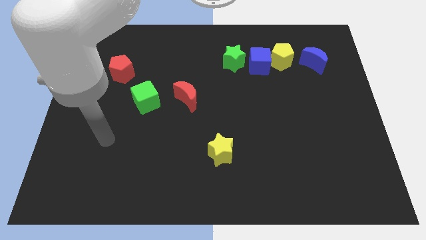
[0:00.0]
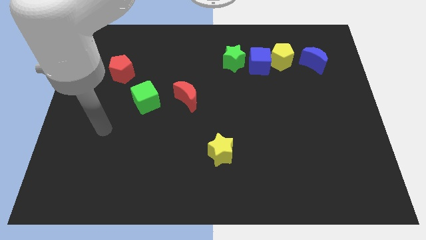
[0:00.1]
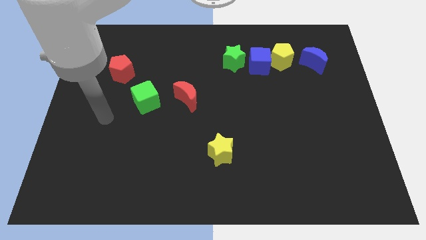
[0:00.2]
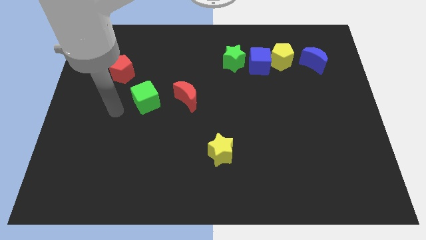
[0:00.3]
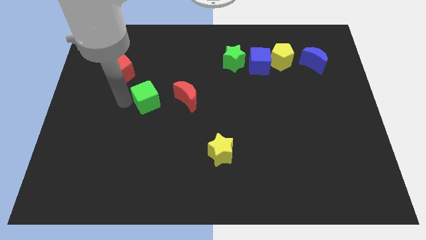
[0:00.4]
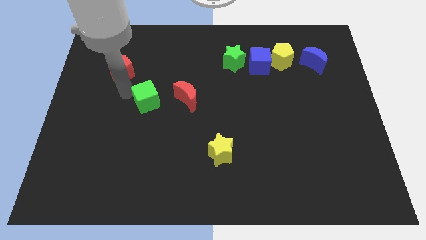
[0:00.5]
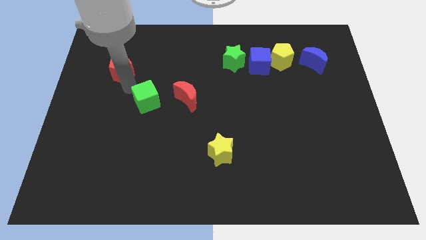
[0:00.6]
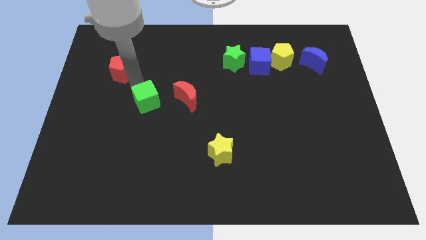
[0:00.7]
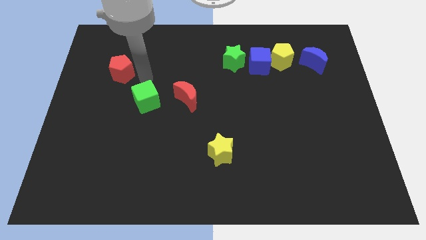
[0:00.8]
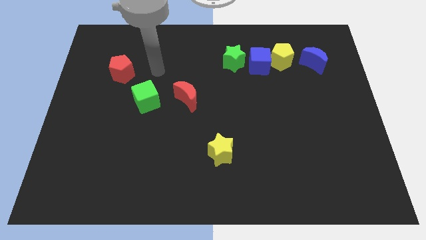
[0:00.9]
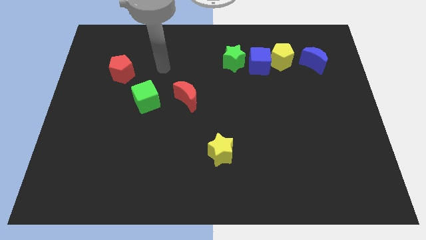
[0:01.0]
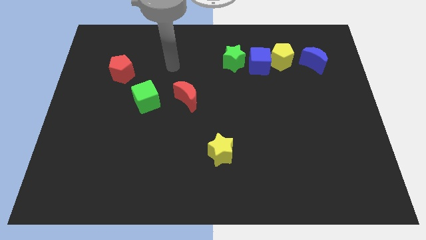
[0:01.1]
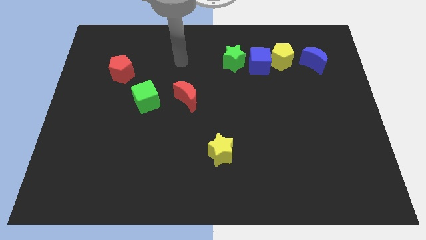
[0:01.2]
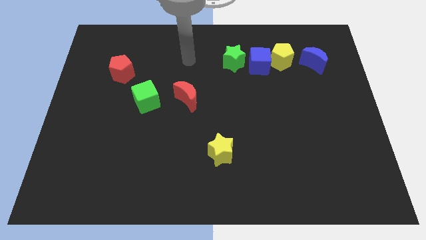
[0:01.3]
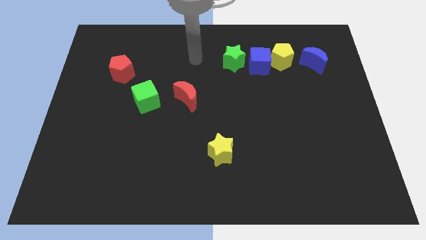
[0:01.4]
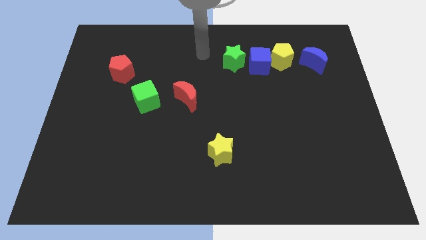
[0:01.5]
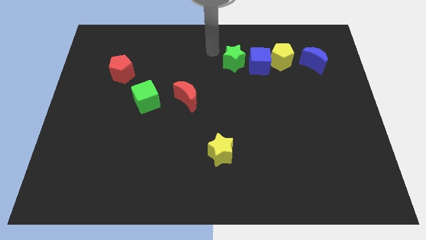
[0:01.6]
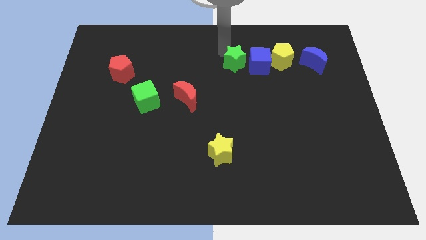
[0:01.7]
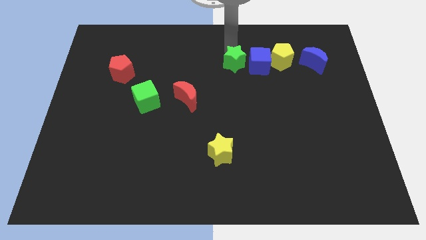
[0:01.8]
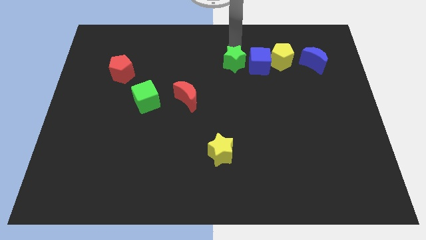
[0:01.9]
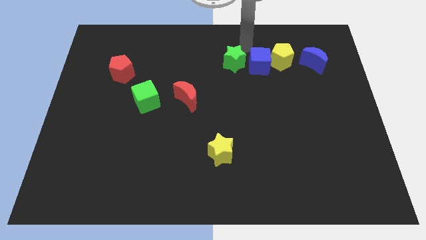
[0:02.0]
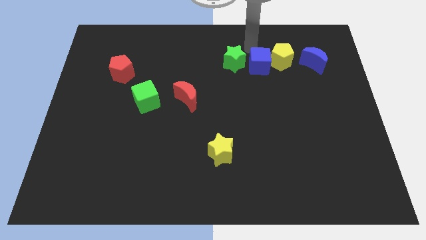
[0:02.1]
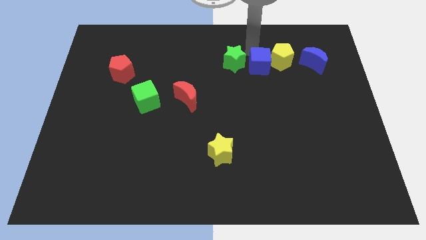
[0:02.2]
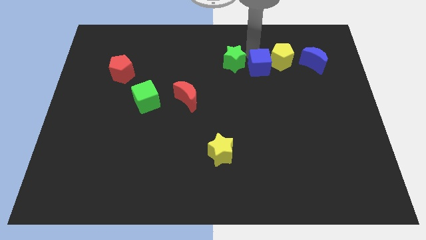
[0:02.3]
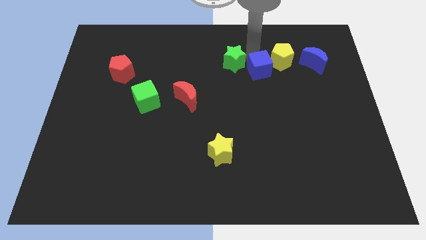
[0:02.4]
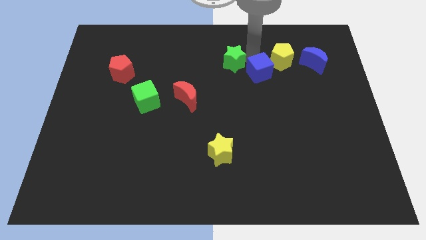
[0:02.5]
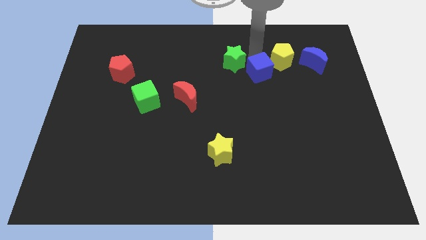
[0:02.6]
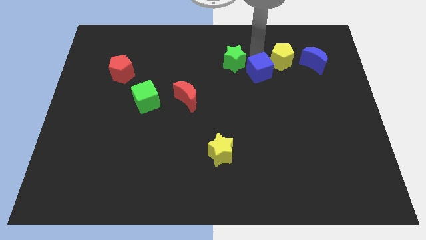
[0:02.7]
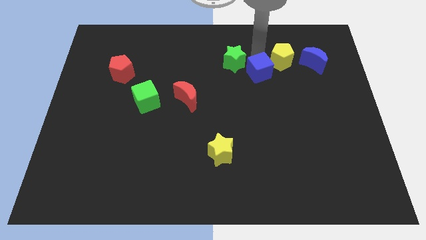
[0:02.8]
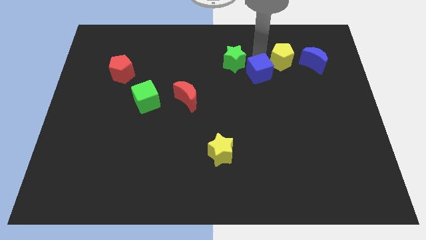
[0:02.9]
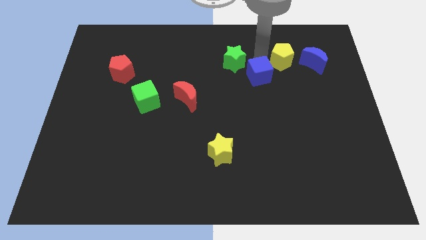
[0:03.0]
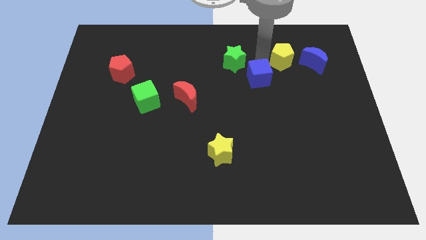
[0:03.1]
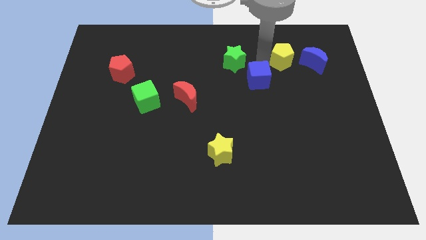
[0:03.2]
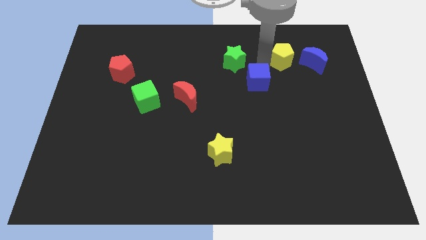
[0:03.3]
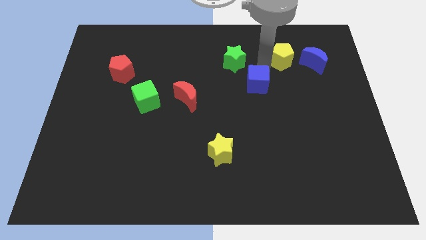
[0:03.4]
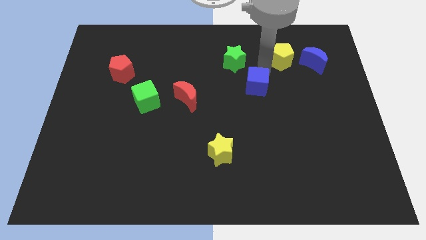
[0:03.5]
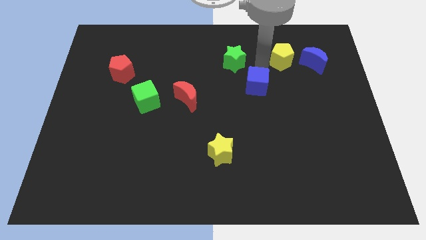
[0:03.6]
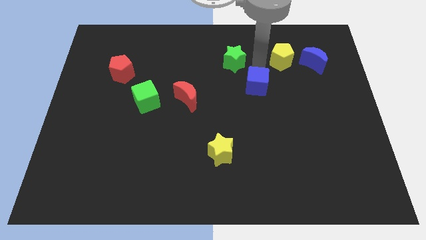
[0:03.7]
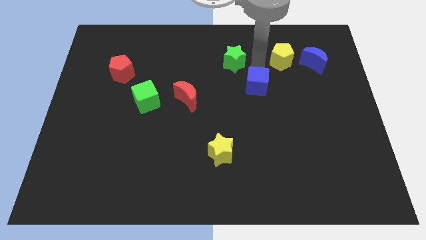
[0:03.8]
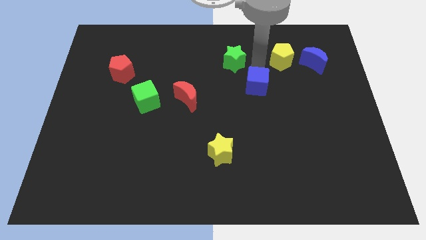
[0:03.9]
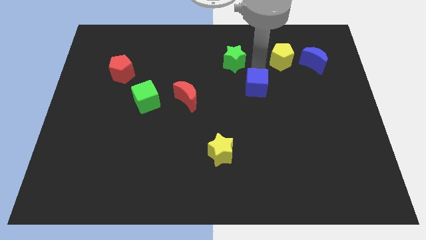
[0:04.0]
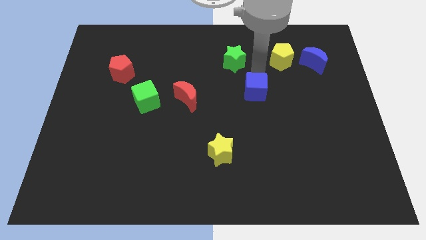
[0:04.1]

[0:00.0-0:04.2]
pull the blue cube apart from the yellow pentagon and green star

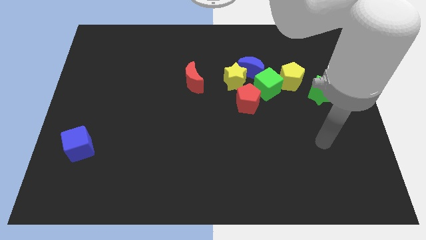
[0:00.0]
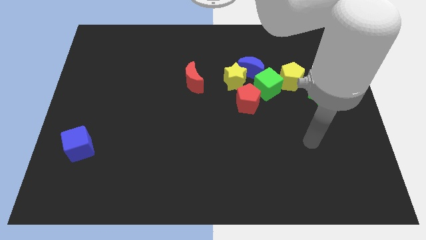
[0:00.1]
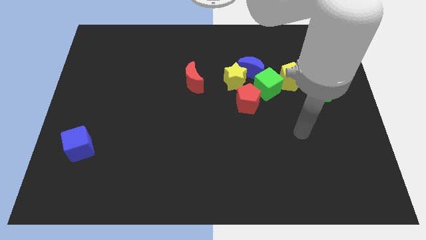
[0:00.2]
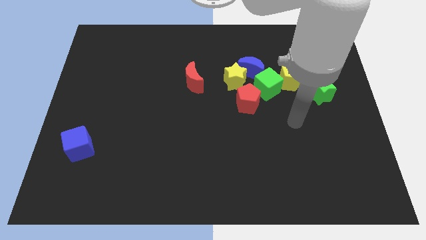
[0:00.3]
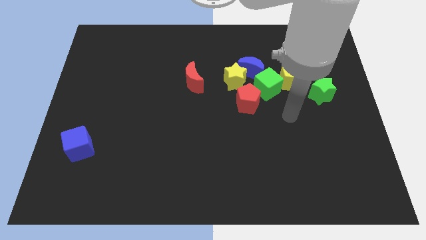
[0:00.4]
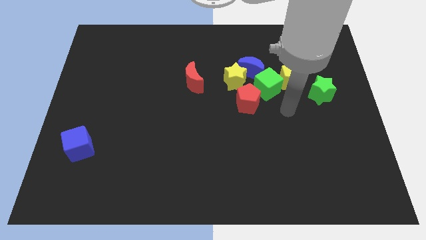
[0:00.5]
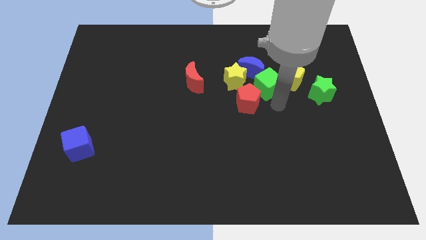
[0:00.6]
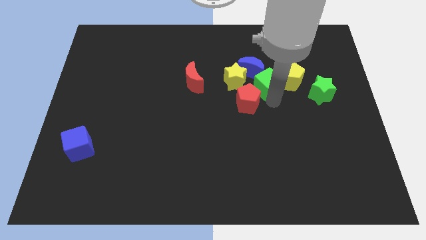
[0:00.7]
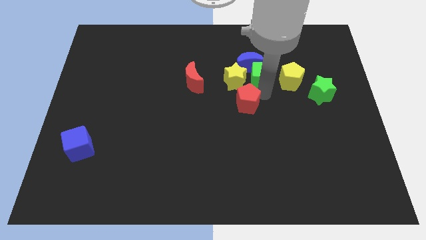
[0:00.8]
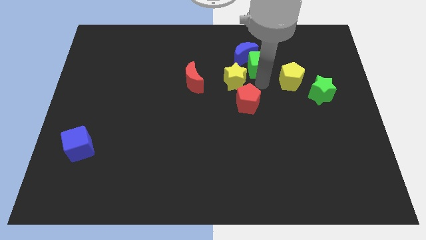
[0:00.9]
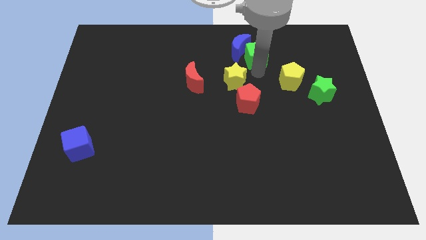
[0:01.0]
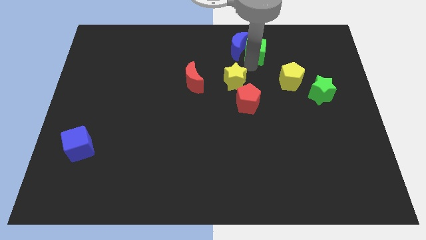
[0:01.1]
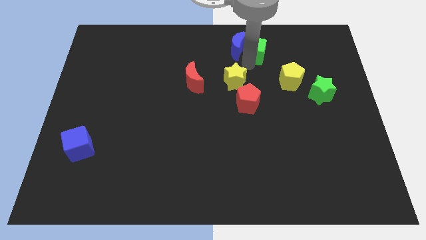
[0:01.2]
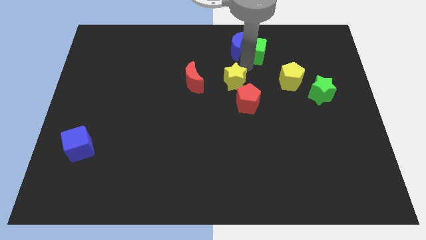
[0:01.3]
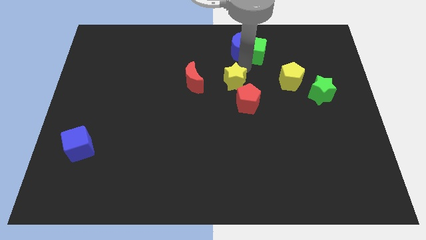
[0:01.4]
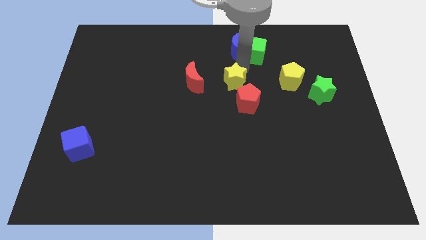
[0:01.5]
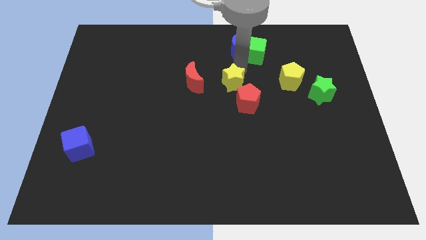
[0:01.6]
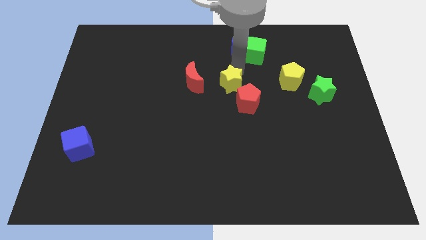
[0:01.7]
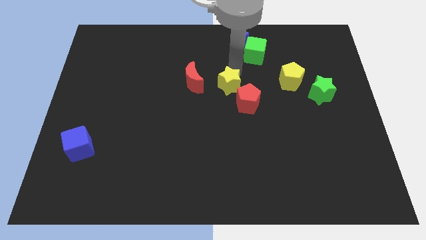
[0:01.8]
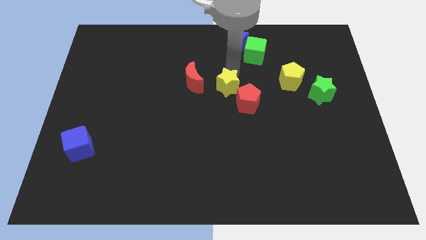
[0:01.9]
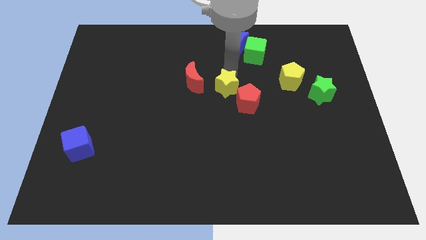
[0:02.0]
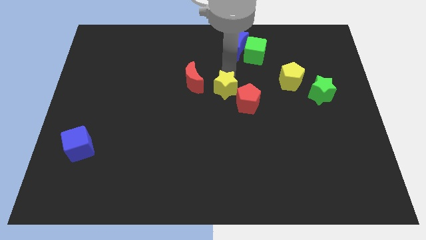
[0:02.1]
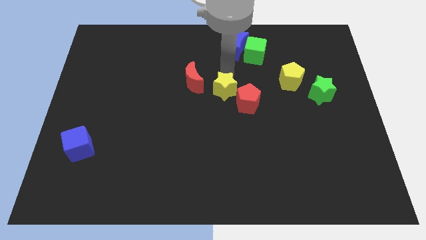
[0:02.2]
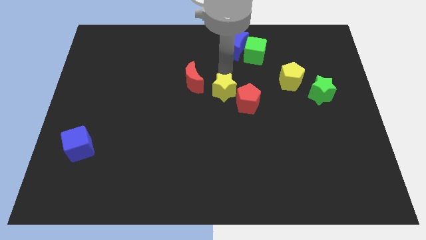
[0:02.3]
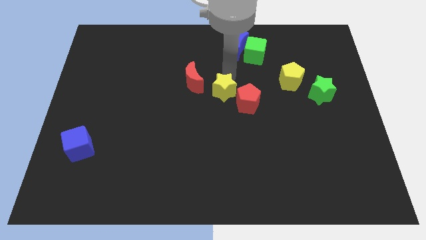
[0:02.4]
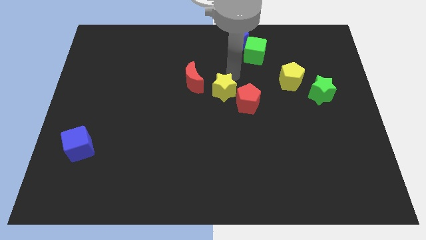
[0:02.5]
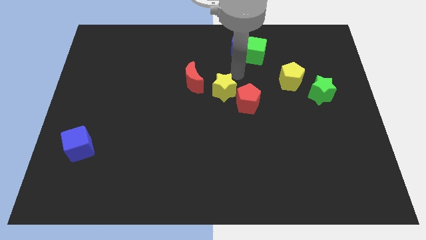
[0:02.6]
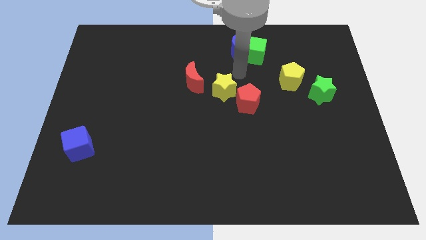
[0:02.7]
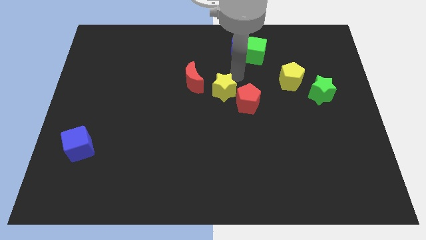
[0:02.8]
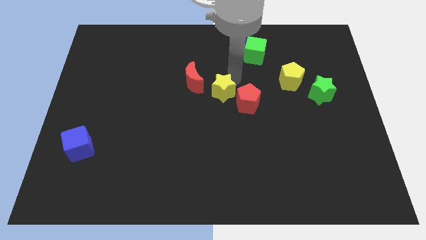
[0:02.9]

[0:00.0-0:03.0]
pull the yellow star apart from the blue moon, red pentagon, and green cube

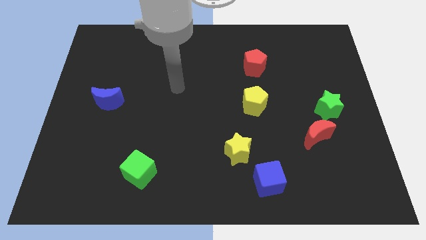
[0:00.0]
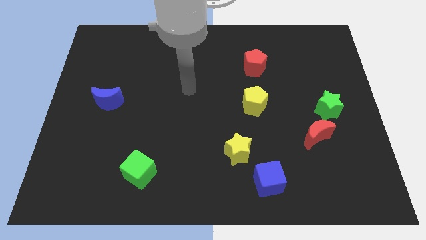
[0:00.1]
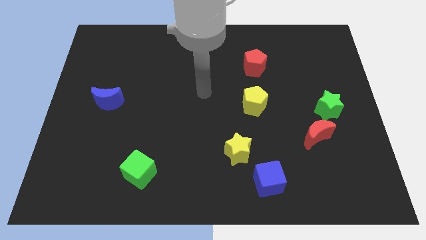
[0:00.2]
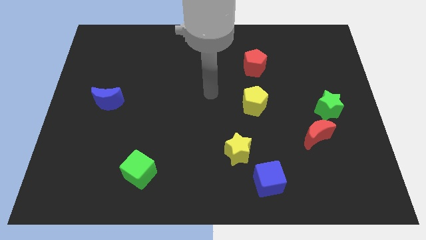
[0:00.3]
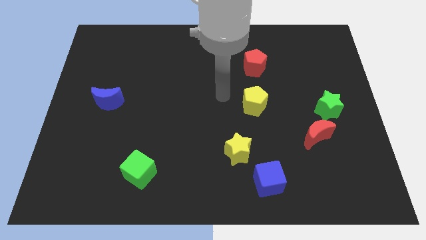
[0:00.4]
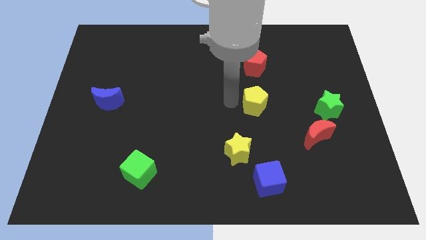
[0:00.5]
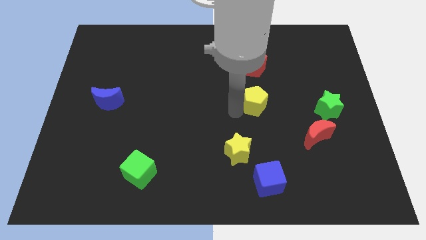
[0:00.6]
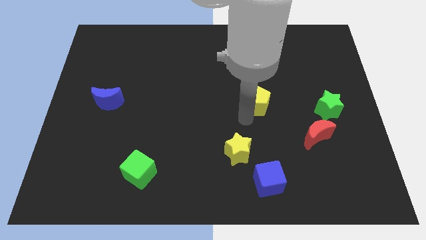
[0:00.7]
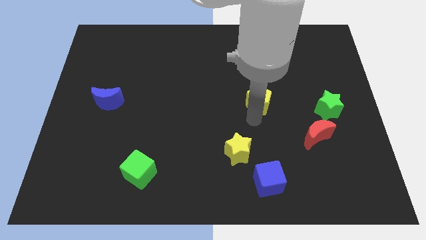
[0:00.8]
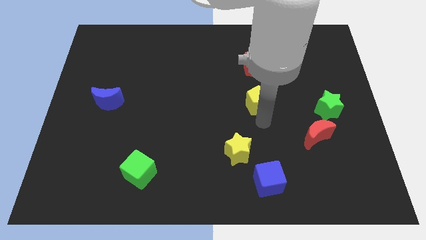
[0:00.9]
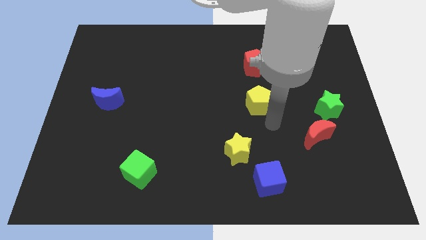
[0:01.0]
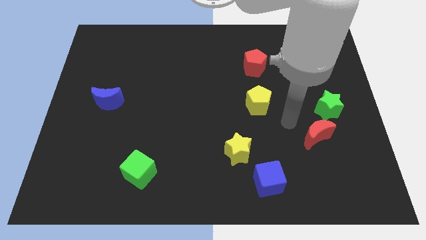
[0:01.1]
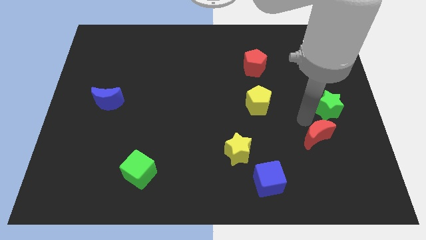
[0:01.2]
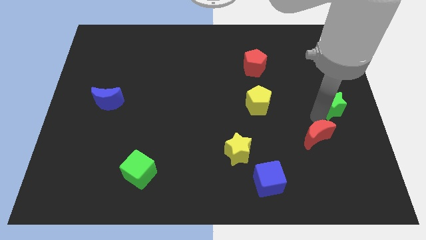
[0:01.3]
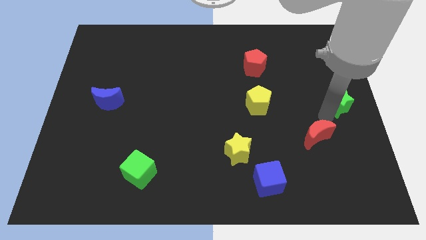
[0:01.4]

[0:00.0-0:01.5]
separate the red moon from the green star

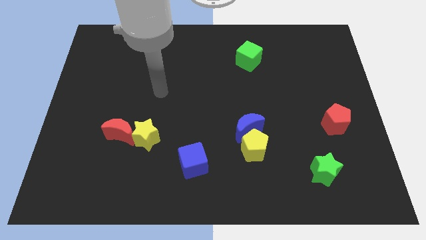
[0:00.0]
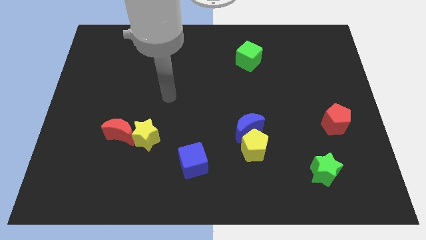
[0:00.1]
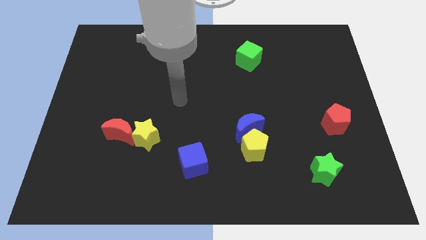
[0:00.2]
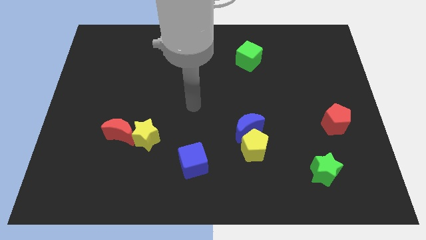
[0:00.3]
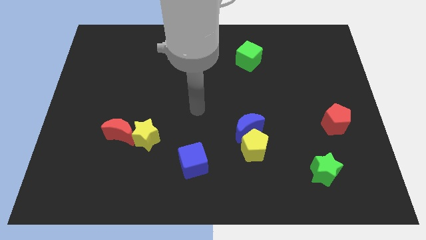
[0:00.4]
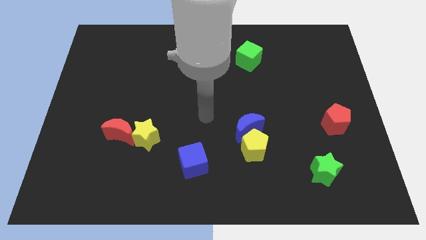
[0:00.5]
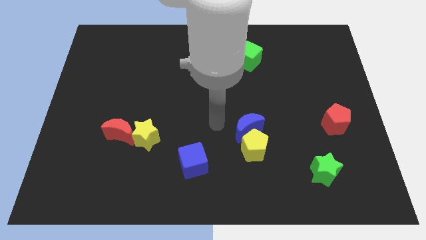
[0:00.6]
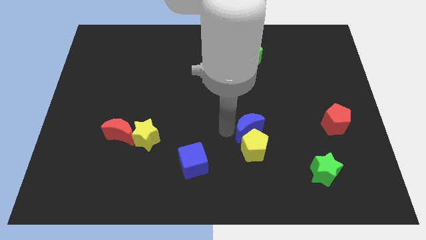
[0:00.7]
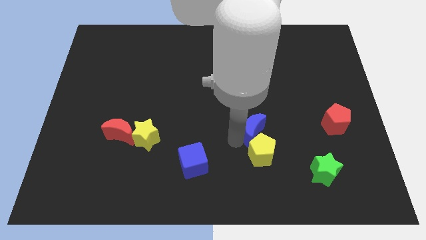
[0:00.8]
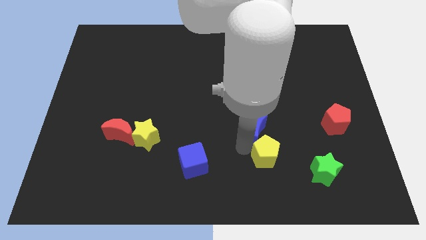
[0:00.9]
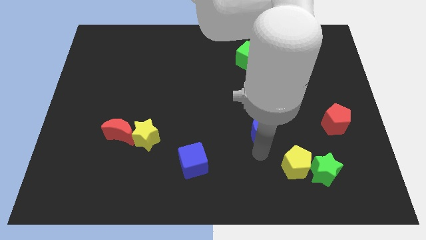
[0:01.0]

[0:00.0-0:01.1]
separate the blue moon from the yellow pentagon
